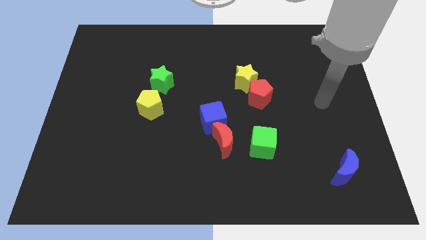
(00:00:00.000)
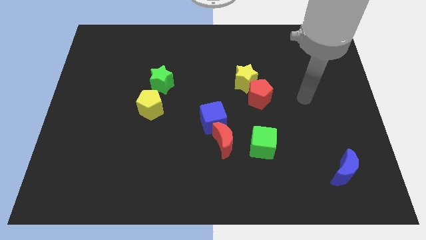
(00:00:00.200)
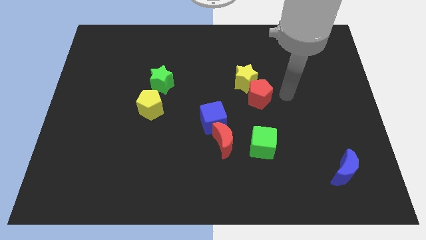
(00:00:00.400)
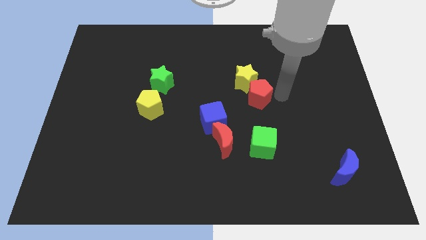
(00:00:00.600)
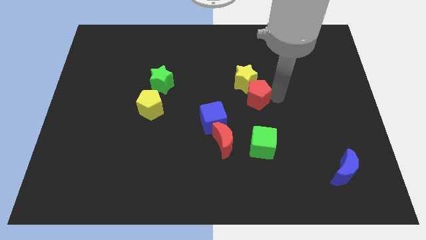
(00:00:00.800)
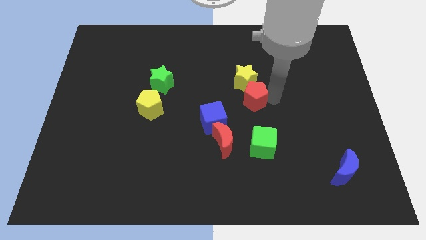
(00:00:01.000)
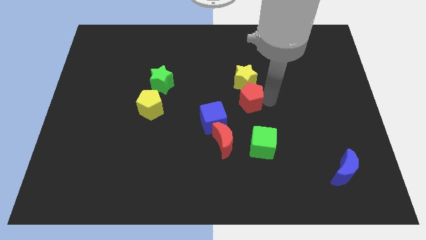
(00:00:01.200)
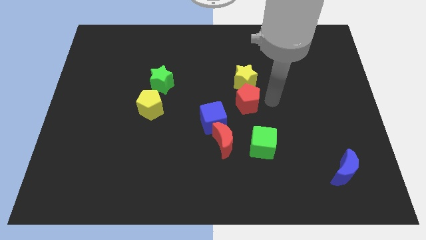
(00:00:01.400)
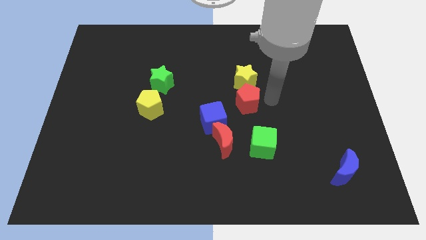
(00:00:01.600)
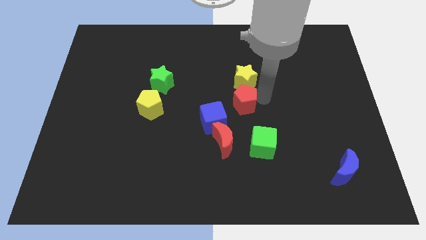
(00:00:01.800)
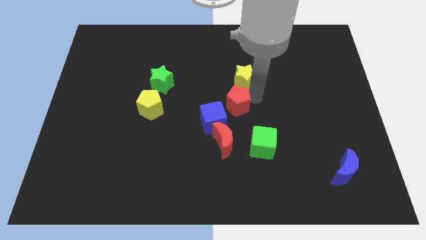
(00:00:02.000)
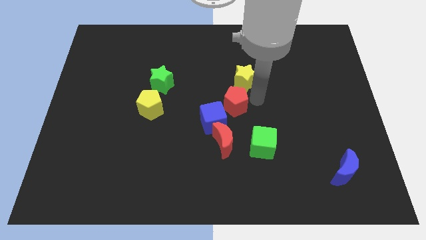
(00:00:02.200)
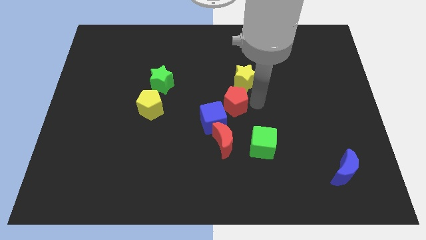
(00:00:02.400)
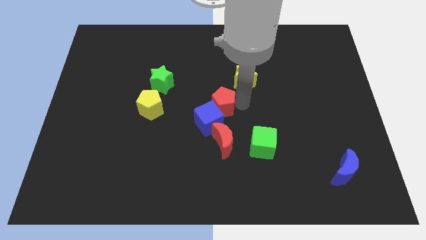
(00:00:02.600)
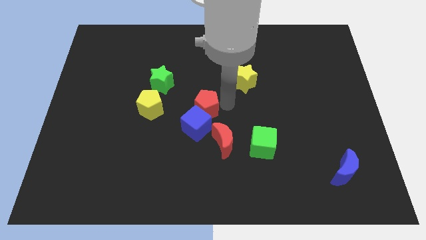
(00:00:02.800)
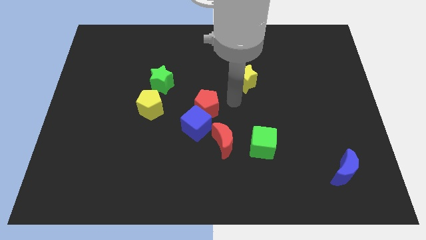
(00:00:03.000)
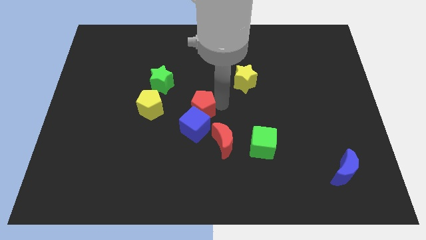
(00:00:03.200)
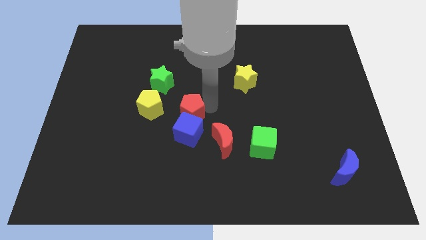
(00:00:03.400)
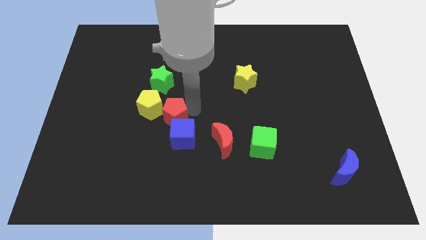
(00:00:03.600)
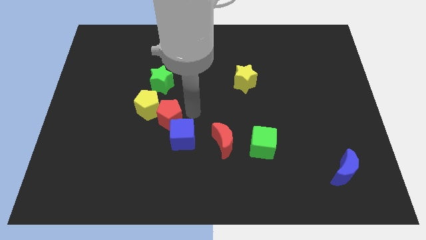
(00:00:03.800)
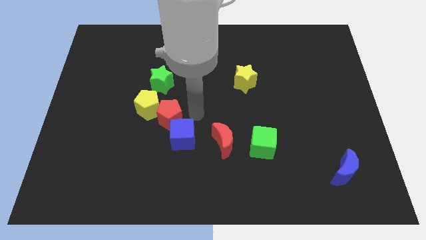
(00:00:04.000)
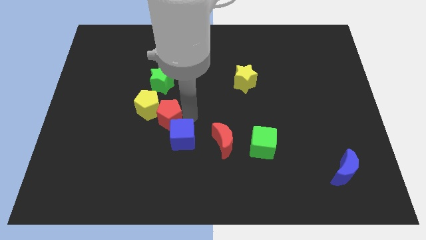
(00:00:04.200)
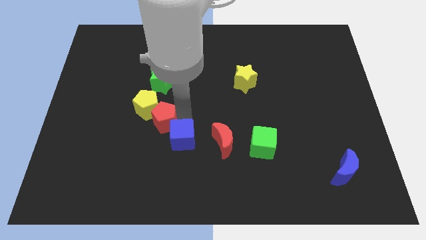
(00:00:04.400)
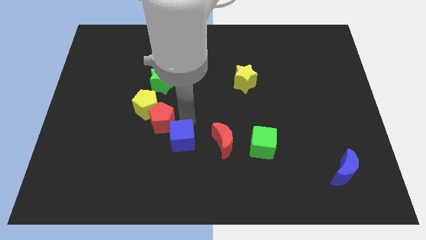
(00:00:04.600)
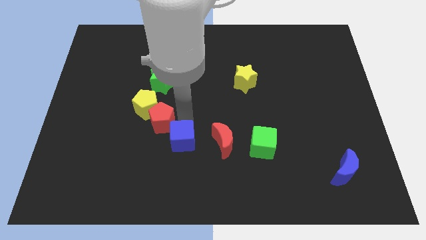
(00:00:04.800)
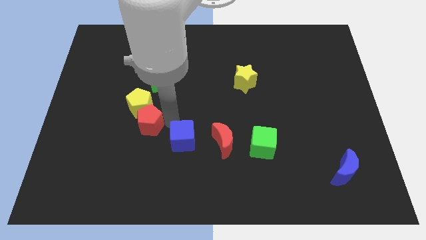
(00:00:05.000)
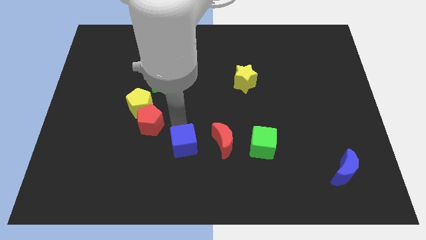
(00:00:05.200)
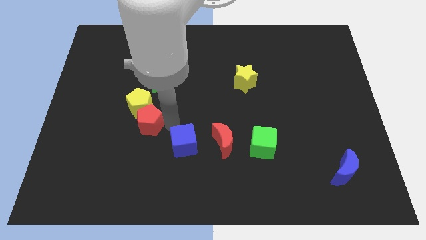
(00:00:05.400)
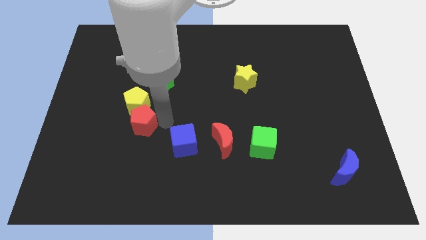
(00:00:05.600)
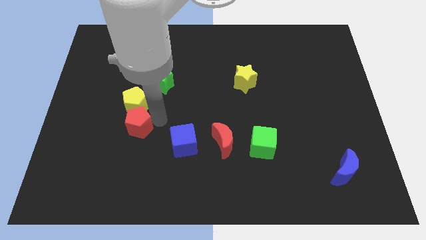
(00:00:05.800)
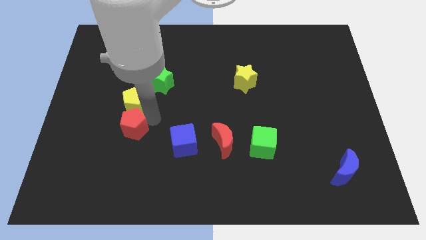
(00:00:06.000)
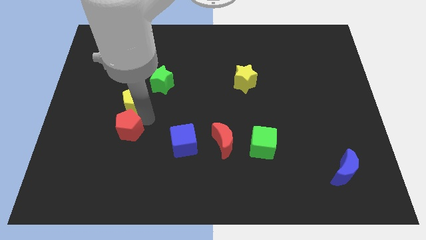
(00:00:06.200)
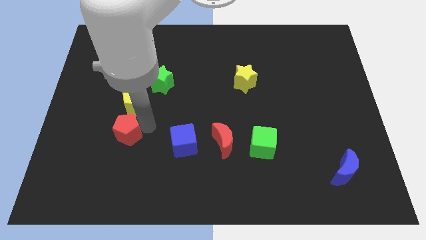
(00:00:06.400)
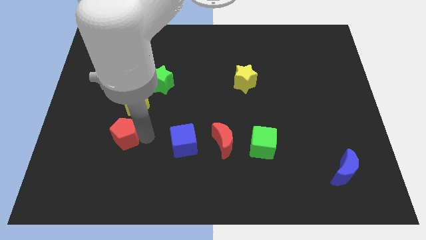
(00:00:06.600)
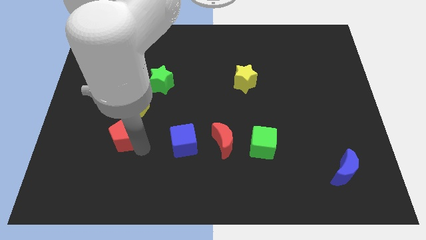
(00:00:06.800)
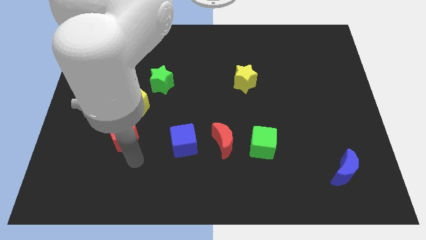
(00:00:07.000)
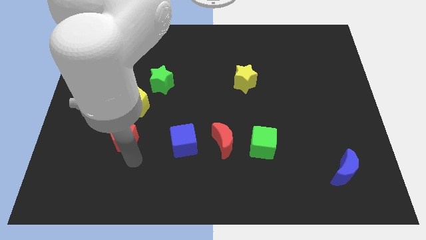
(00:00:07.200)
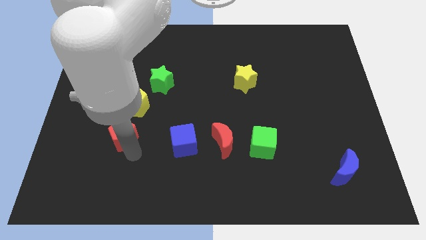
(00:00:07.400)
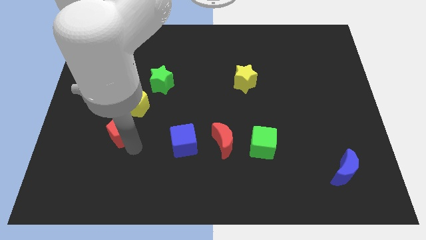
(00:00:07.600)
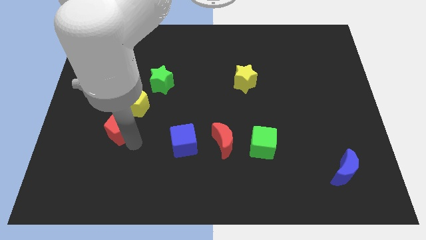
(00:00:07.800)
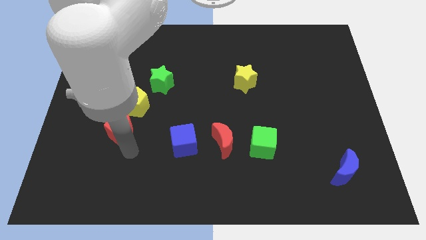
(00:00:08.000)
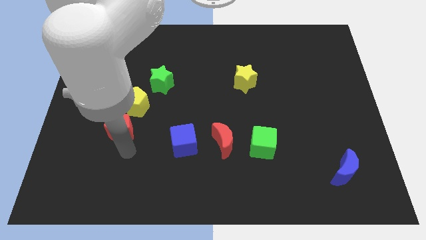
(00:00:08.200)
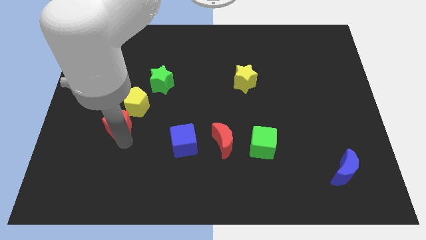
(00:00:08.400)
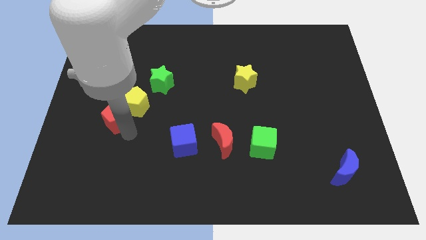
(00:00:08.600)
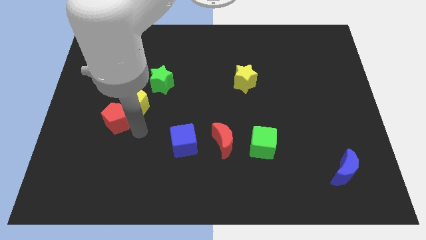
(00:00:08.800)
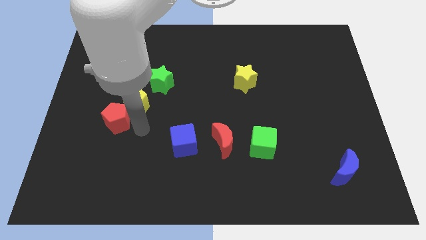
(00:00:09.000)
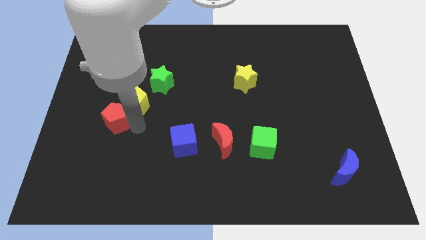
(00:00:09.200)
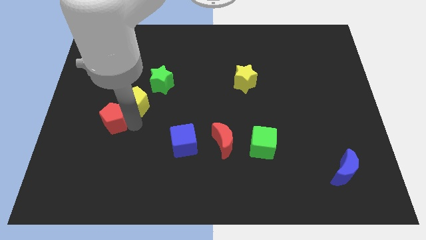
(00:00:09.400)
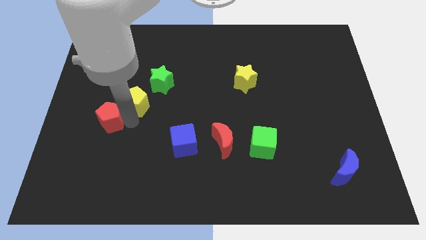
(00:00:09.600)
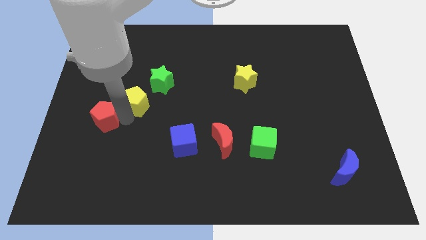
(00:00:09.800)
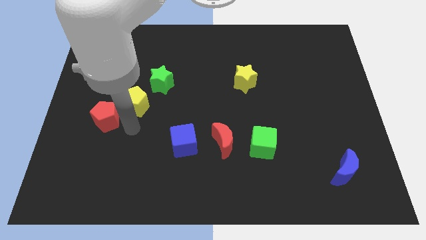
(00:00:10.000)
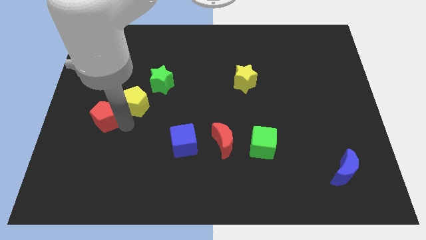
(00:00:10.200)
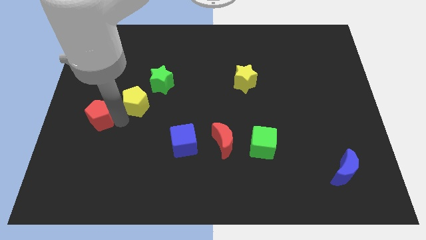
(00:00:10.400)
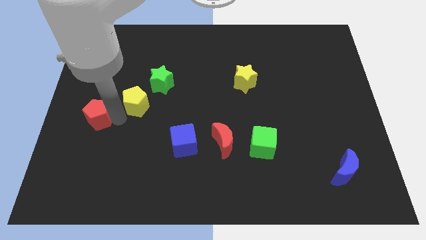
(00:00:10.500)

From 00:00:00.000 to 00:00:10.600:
push the red pentagon to the left side of the board

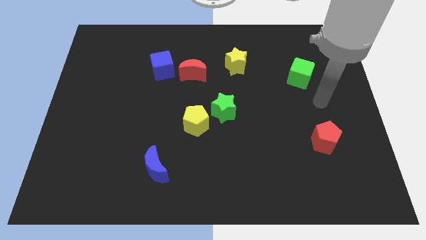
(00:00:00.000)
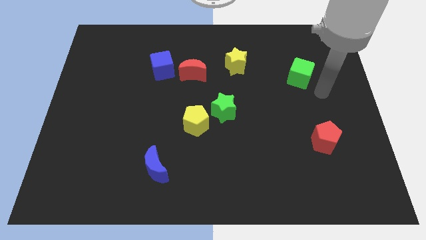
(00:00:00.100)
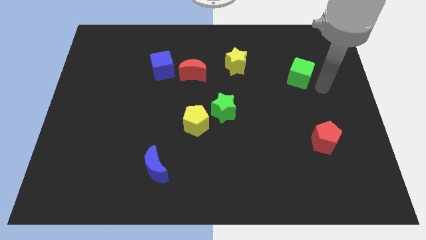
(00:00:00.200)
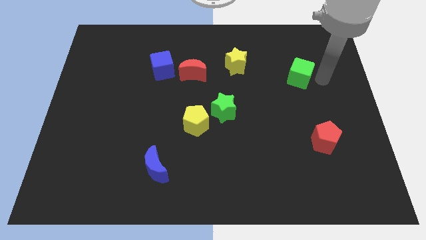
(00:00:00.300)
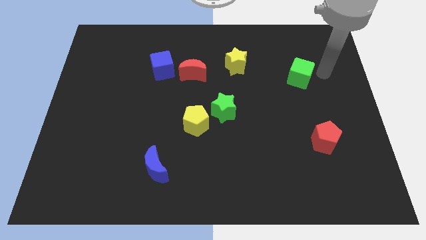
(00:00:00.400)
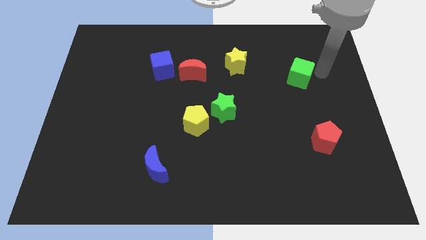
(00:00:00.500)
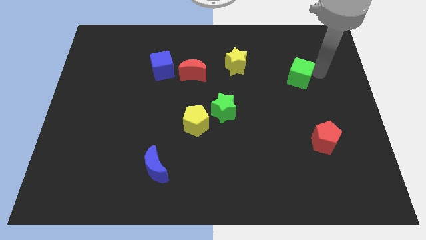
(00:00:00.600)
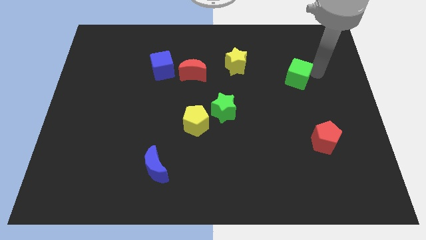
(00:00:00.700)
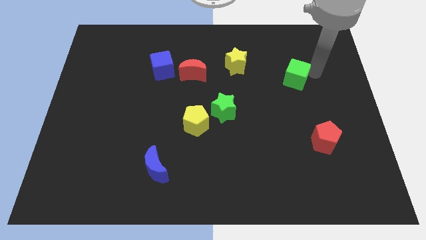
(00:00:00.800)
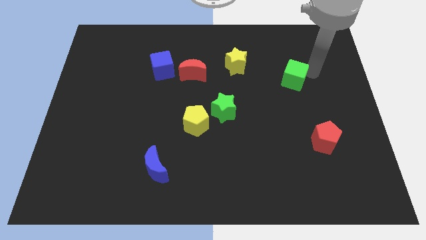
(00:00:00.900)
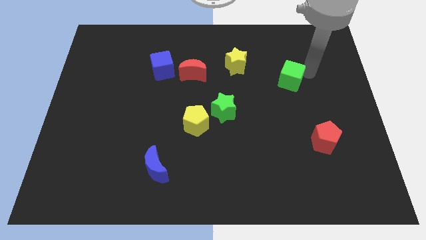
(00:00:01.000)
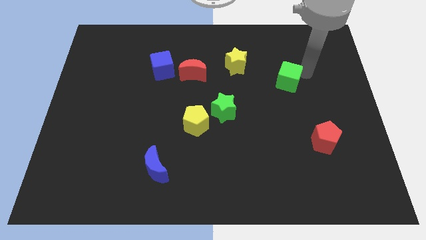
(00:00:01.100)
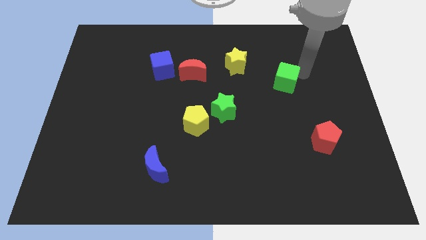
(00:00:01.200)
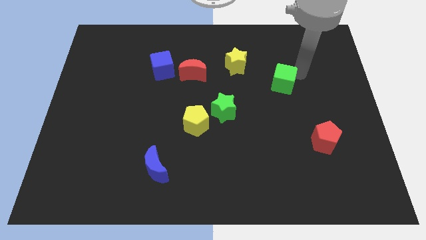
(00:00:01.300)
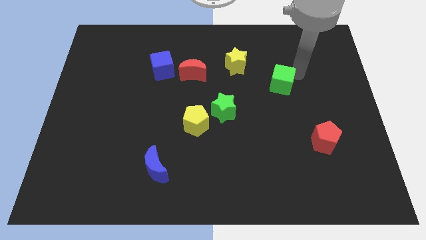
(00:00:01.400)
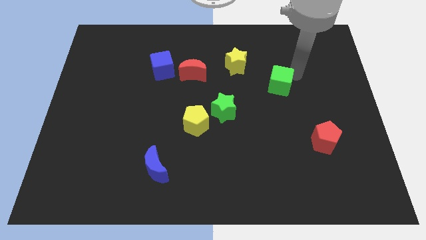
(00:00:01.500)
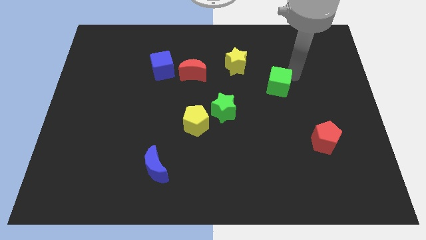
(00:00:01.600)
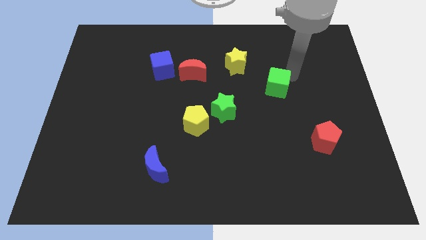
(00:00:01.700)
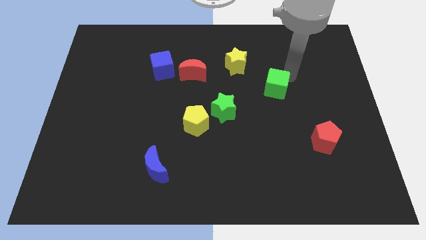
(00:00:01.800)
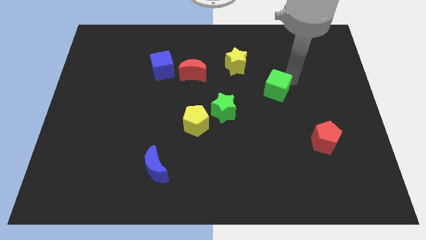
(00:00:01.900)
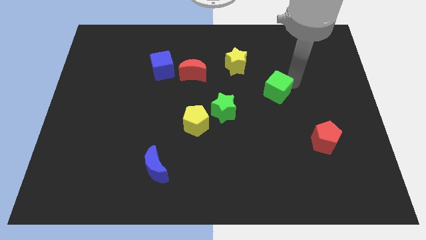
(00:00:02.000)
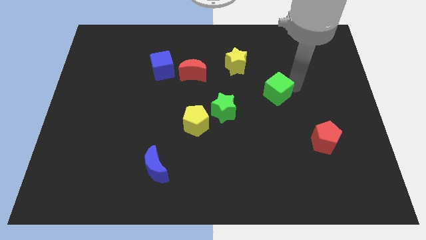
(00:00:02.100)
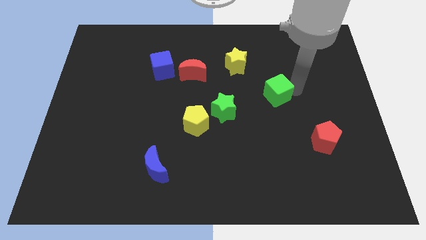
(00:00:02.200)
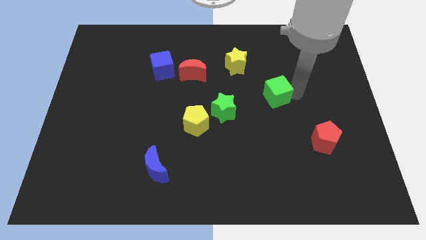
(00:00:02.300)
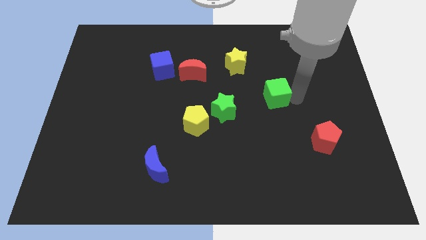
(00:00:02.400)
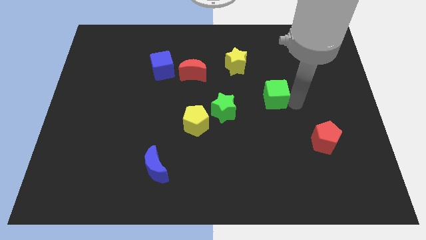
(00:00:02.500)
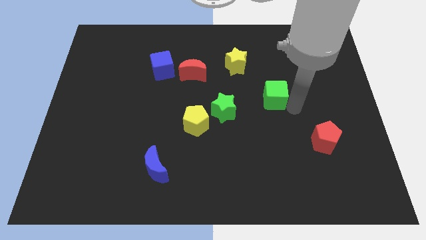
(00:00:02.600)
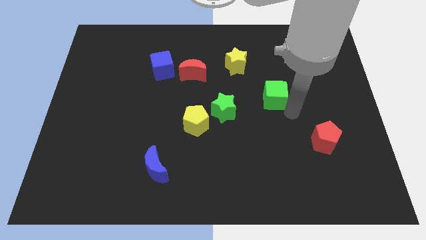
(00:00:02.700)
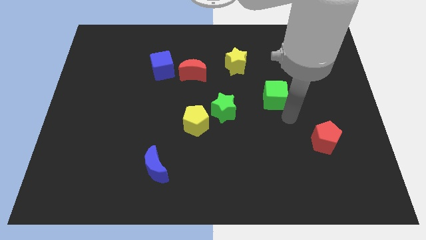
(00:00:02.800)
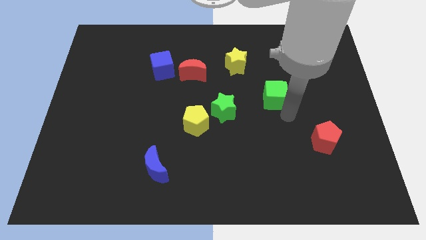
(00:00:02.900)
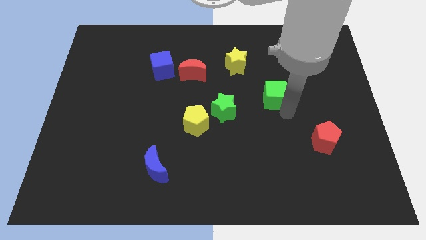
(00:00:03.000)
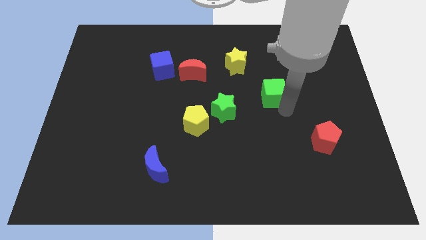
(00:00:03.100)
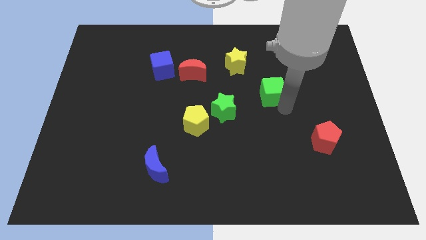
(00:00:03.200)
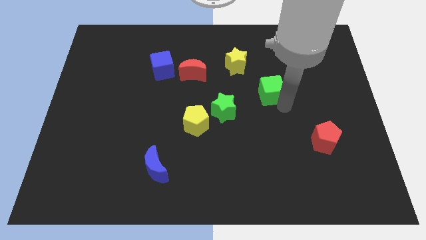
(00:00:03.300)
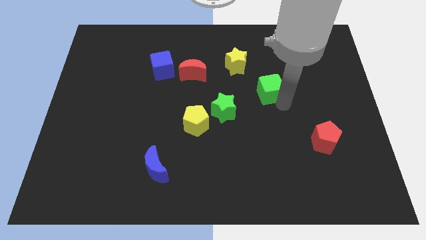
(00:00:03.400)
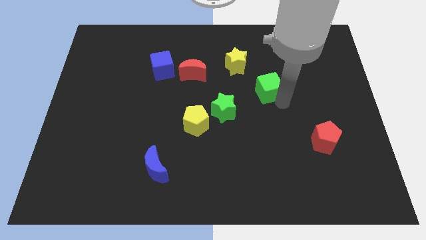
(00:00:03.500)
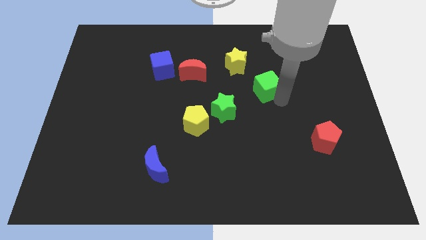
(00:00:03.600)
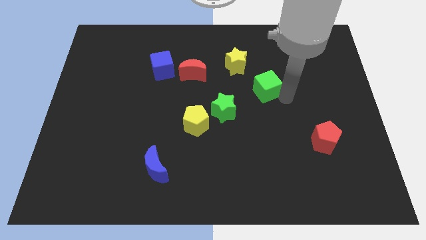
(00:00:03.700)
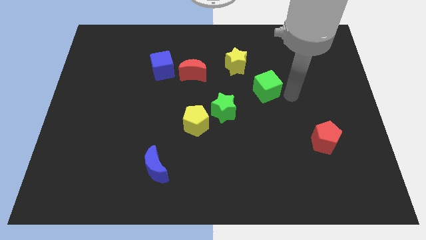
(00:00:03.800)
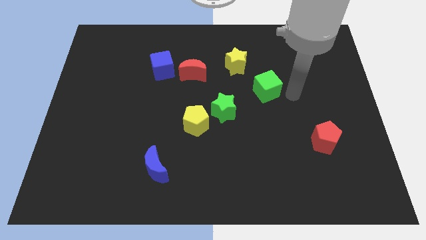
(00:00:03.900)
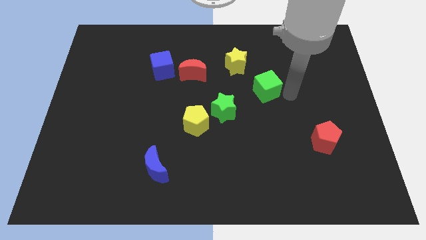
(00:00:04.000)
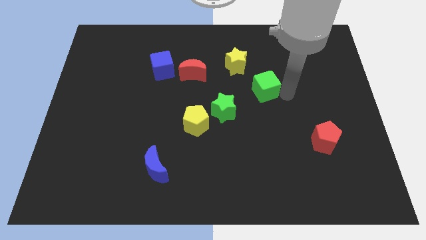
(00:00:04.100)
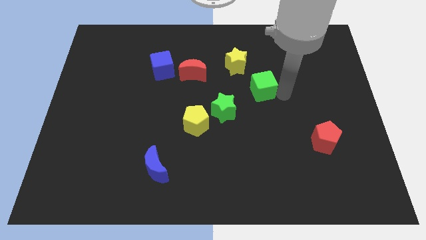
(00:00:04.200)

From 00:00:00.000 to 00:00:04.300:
push the green cube to the middle of the board
